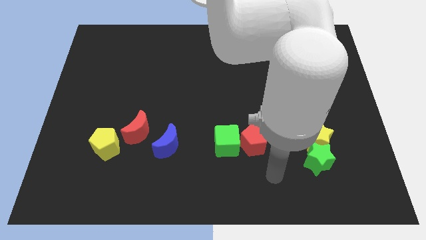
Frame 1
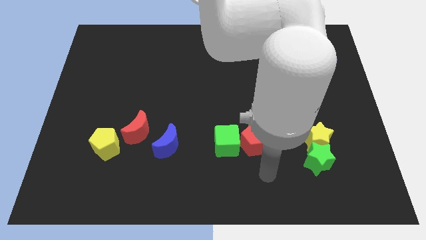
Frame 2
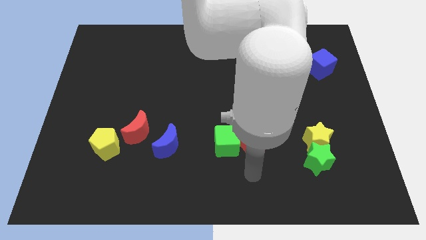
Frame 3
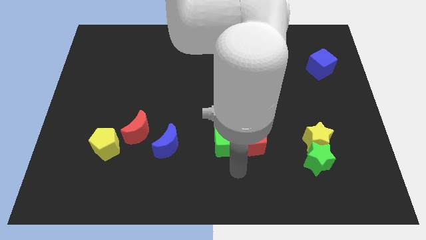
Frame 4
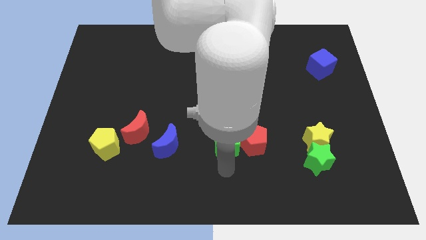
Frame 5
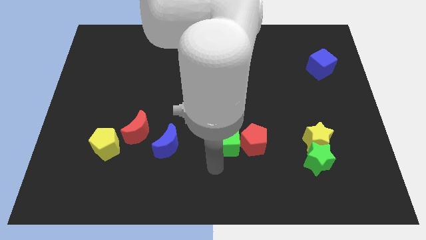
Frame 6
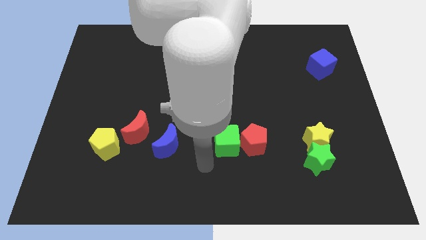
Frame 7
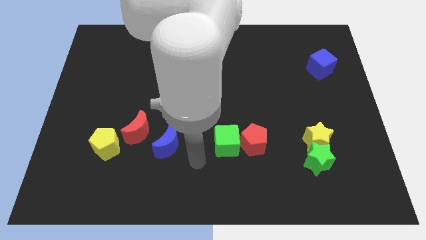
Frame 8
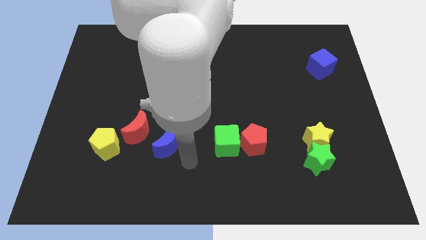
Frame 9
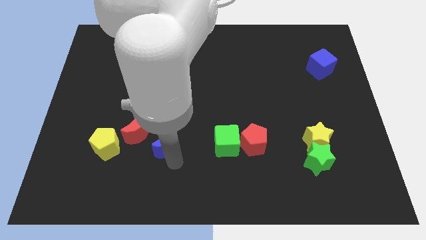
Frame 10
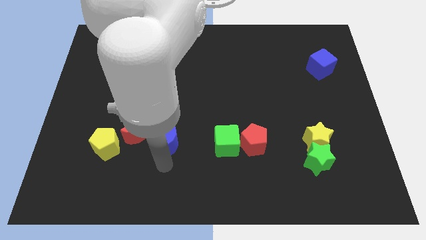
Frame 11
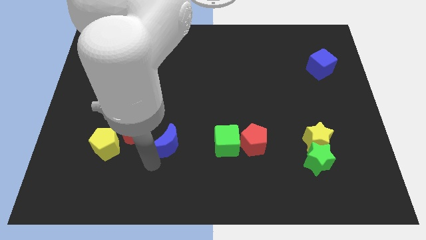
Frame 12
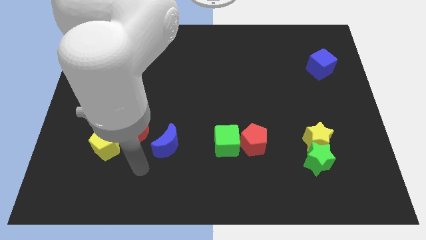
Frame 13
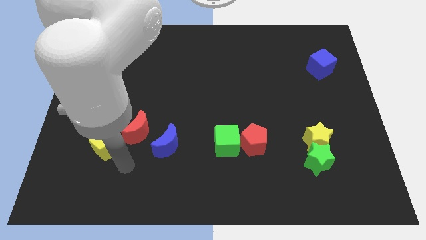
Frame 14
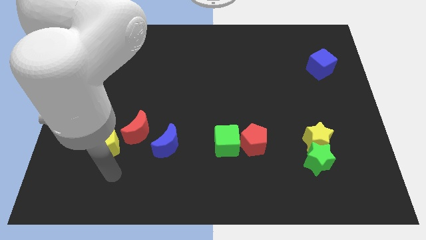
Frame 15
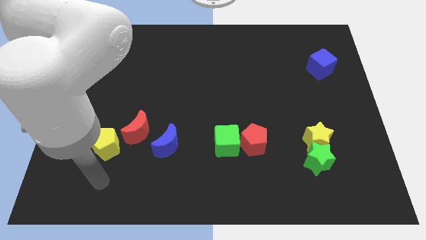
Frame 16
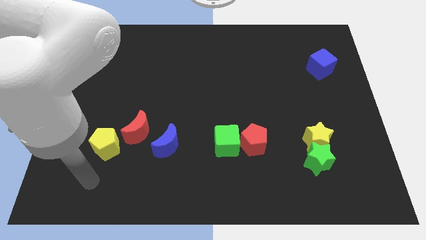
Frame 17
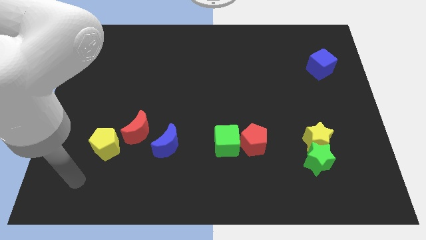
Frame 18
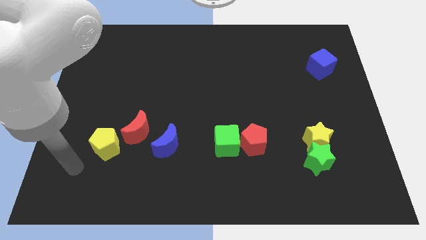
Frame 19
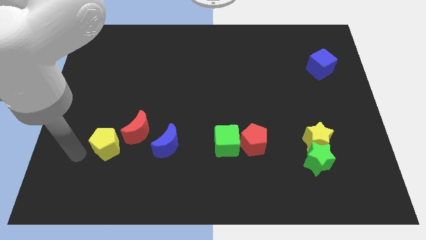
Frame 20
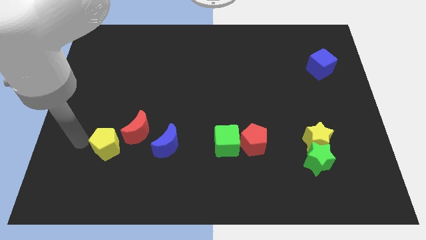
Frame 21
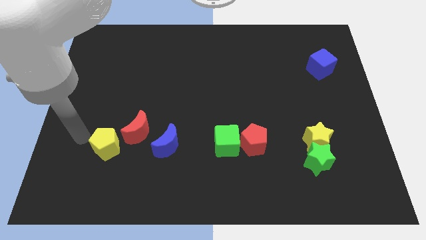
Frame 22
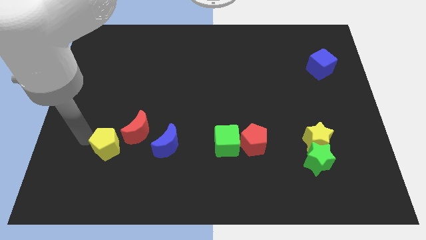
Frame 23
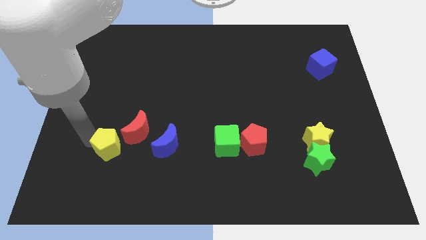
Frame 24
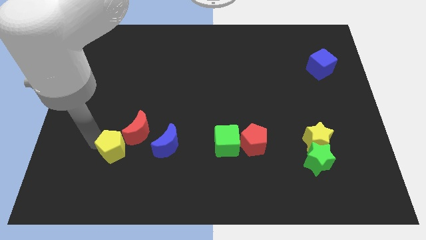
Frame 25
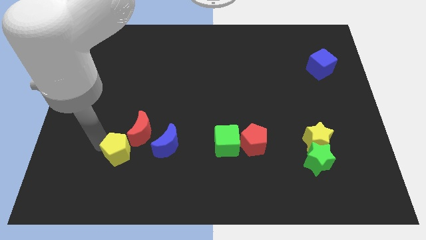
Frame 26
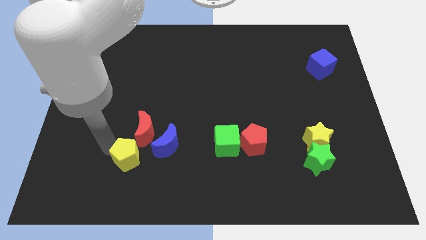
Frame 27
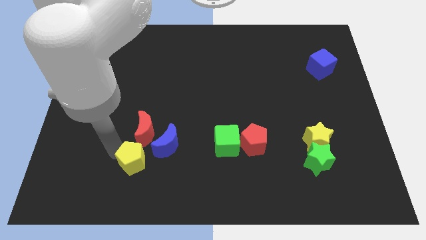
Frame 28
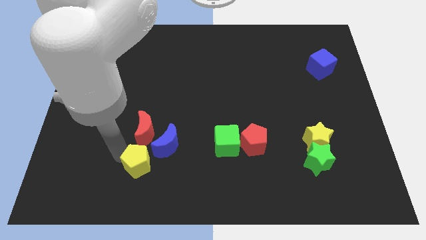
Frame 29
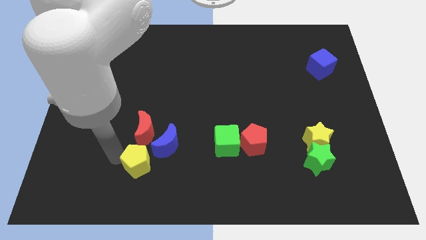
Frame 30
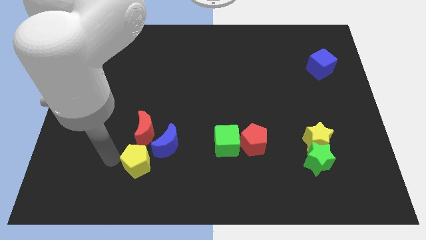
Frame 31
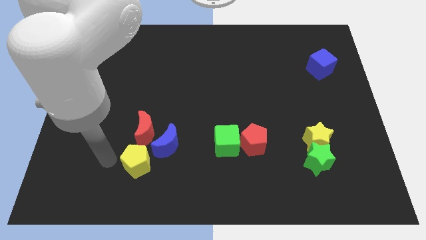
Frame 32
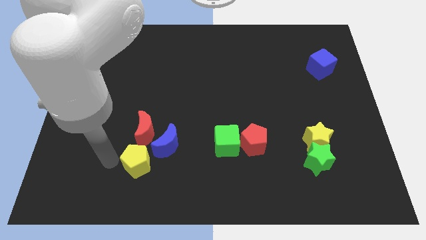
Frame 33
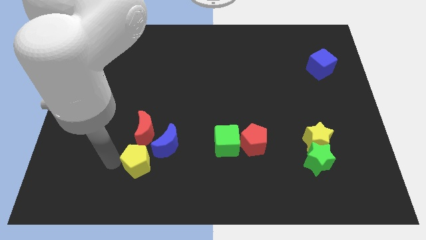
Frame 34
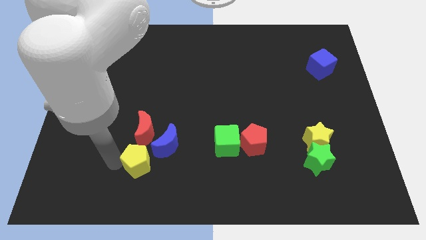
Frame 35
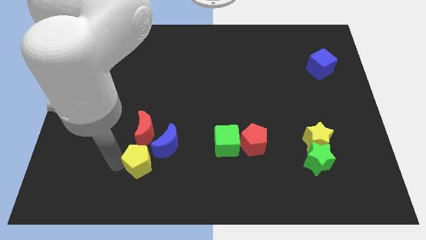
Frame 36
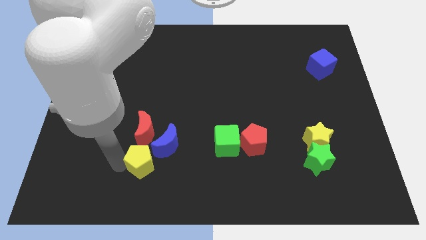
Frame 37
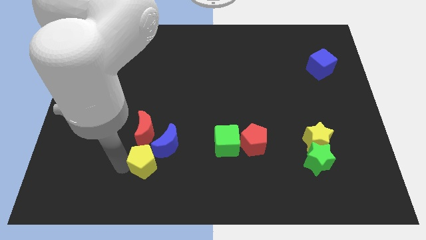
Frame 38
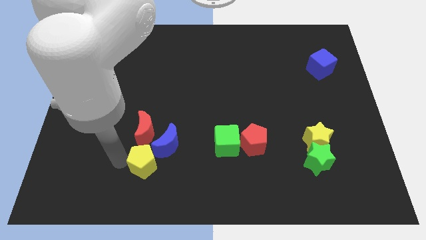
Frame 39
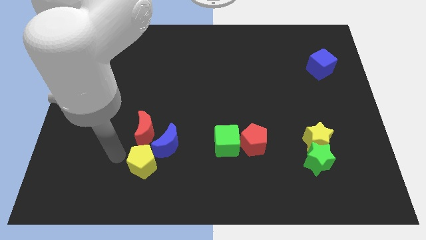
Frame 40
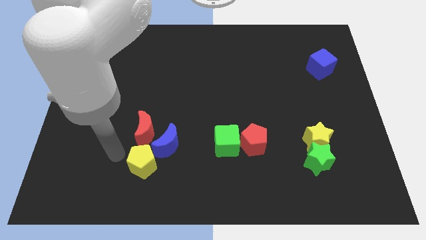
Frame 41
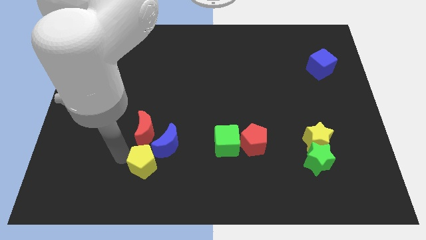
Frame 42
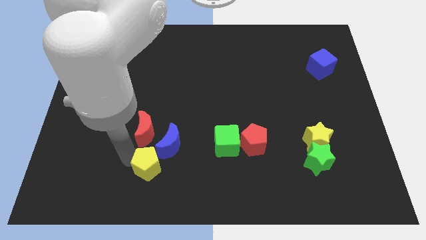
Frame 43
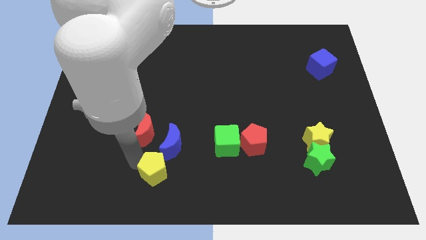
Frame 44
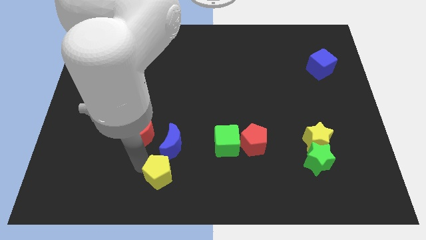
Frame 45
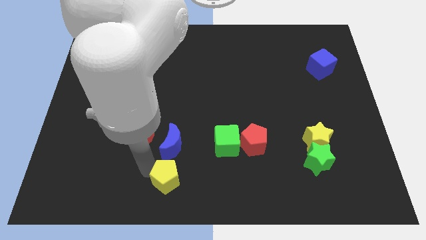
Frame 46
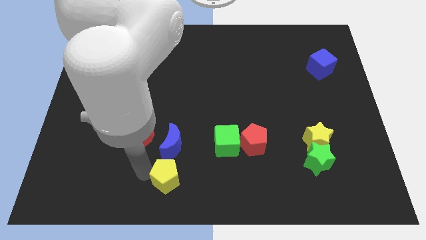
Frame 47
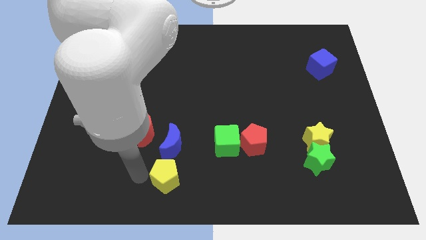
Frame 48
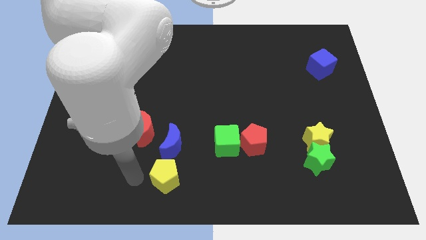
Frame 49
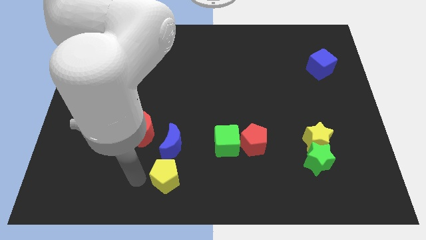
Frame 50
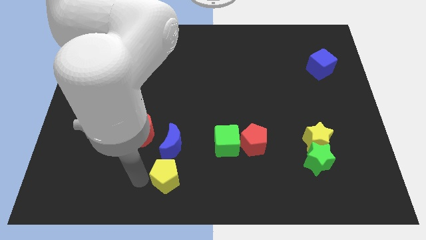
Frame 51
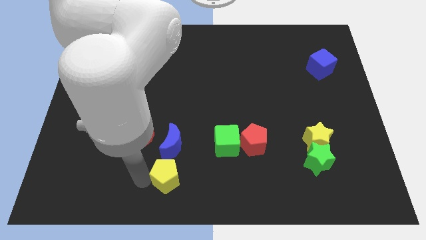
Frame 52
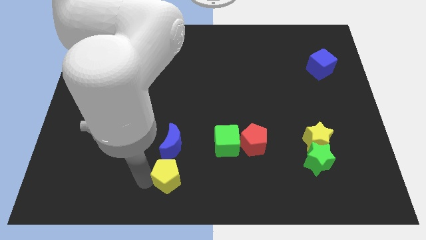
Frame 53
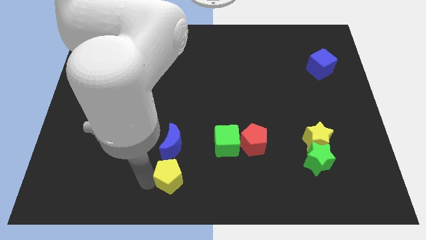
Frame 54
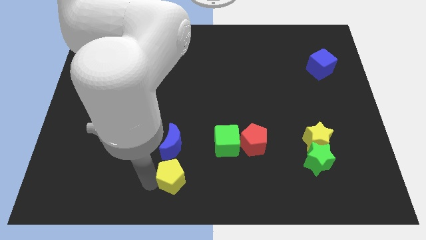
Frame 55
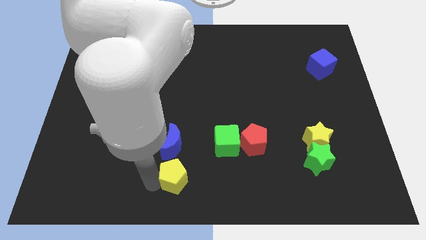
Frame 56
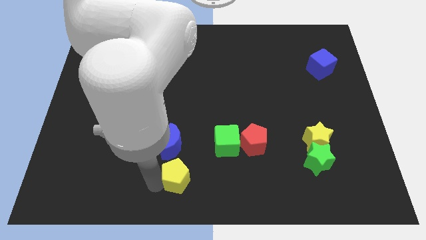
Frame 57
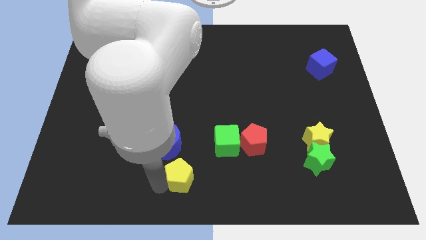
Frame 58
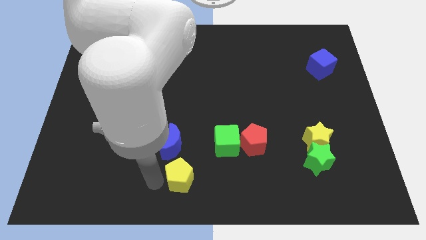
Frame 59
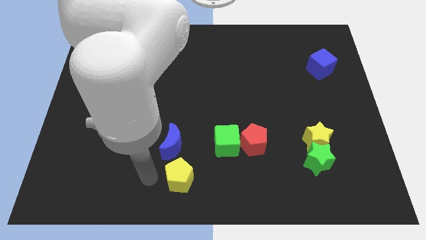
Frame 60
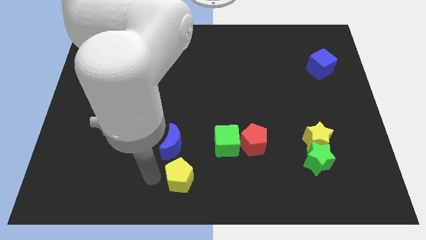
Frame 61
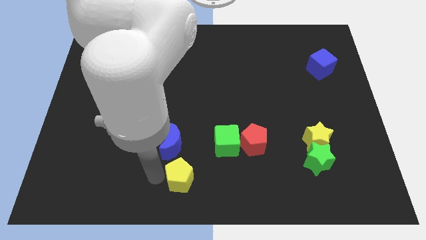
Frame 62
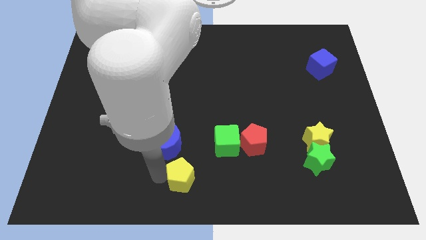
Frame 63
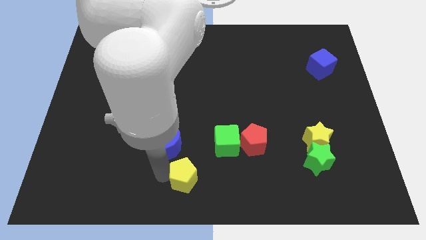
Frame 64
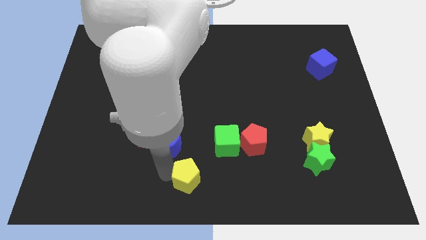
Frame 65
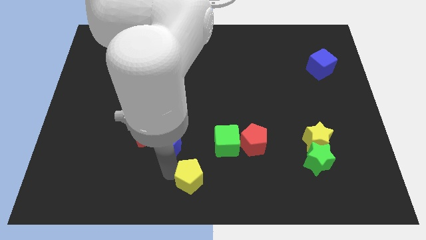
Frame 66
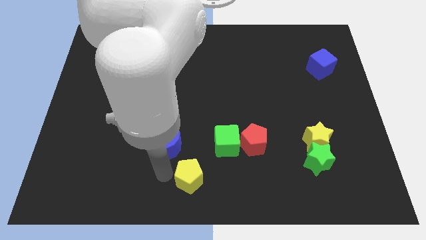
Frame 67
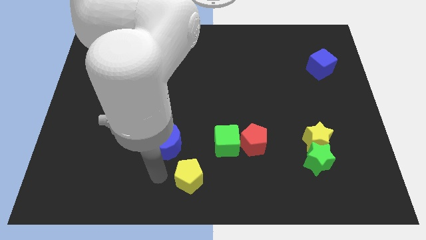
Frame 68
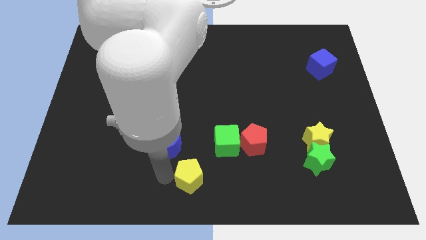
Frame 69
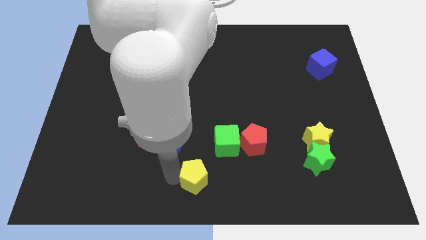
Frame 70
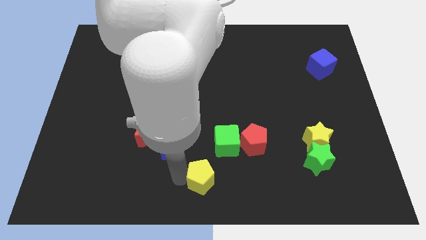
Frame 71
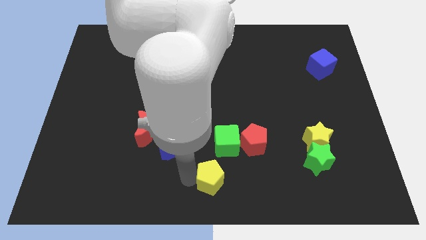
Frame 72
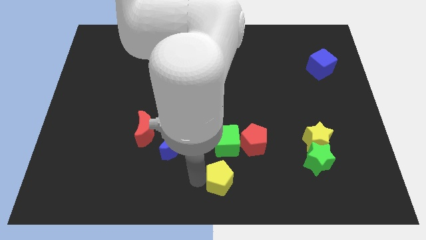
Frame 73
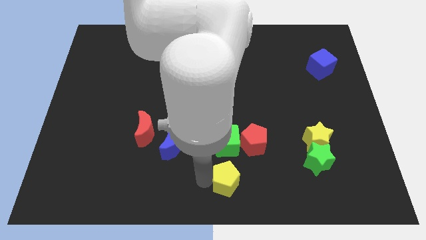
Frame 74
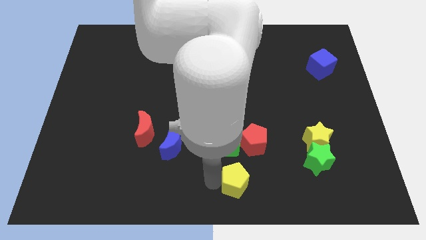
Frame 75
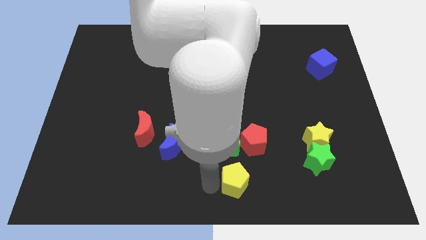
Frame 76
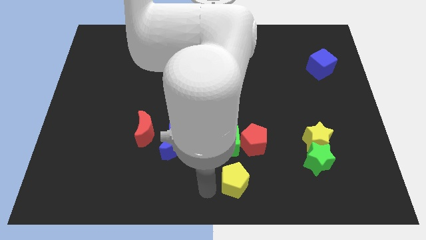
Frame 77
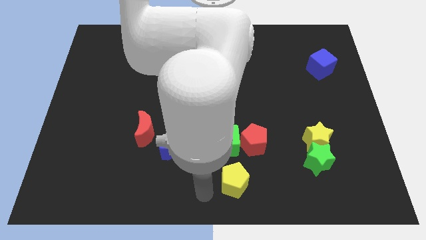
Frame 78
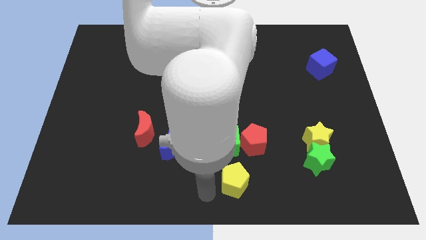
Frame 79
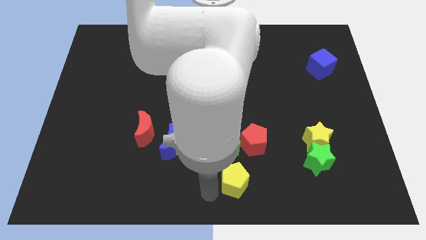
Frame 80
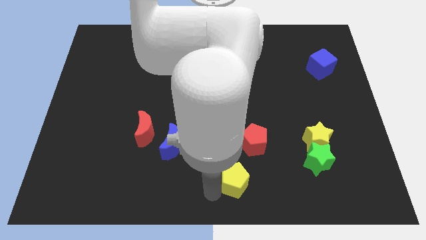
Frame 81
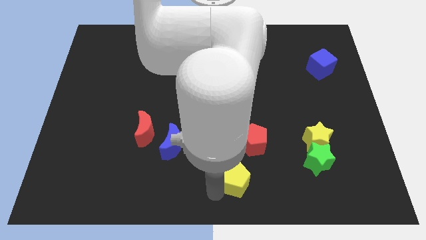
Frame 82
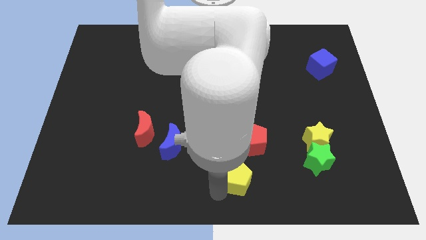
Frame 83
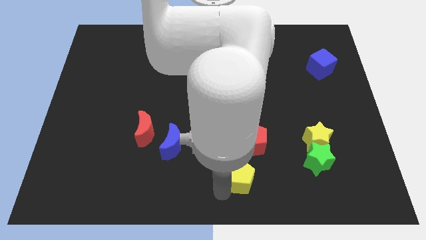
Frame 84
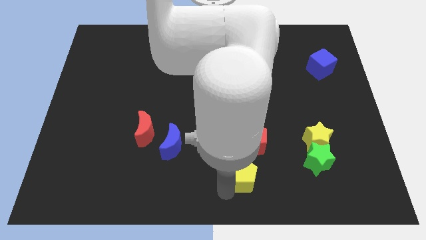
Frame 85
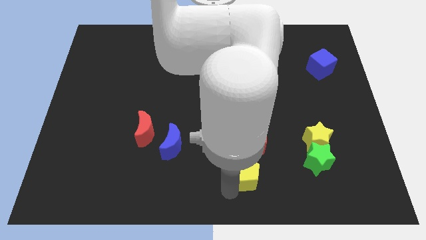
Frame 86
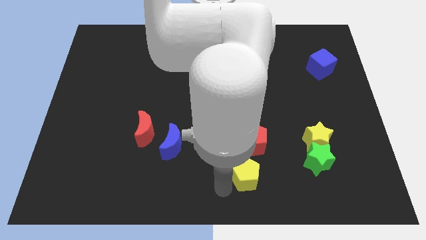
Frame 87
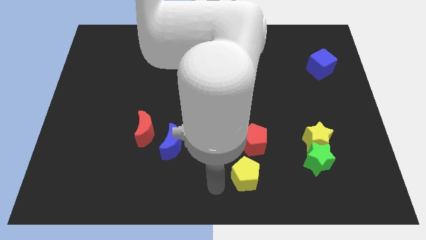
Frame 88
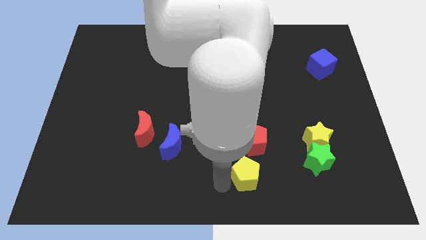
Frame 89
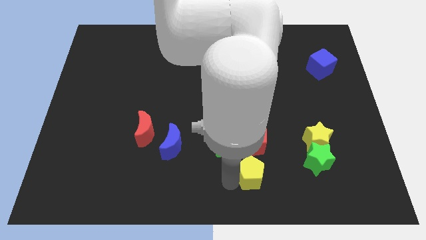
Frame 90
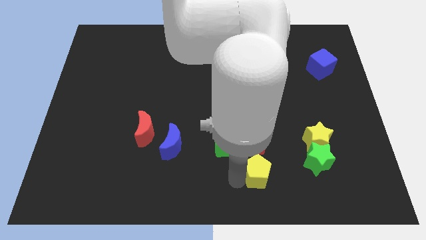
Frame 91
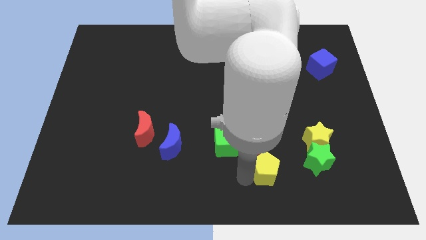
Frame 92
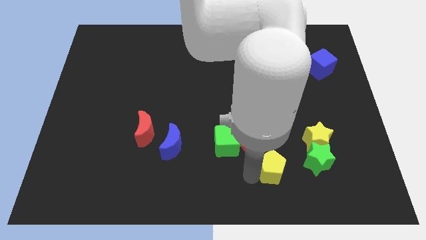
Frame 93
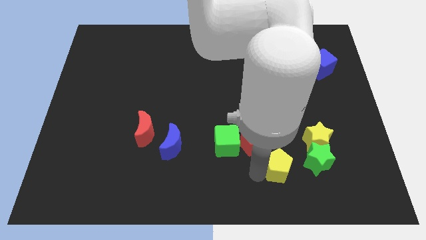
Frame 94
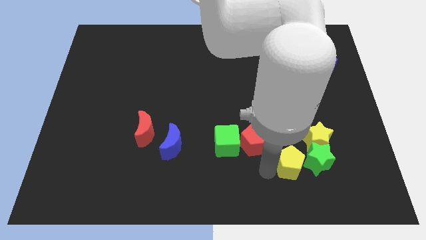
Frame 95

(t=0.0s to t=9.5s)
push the yellow pentagon next to the green star
